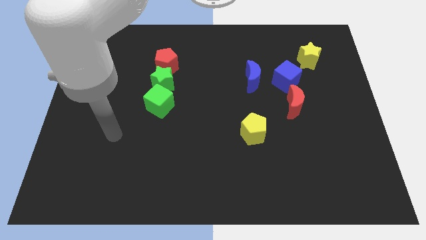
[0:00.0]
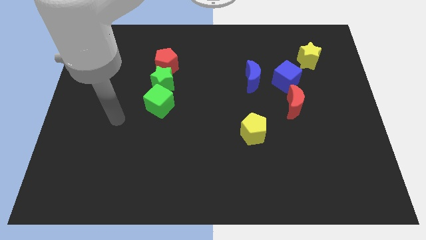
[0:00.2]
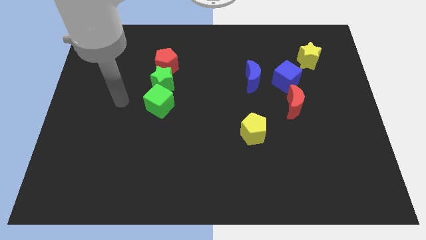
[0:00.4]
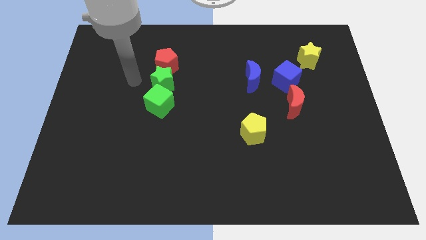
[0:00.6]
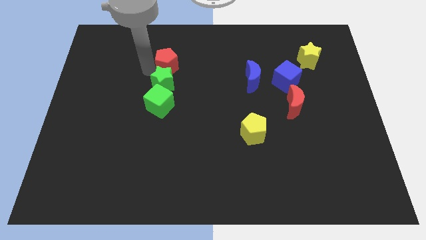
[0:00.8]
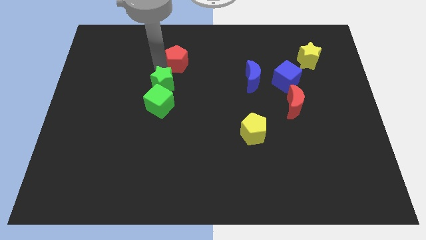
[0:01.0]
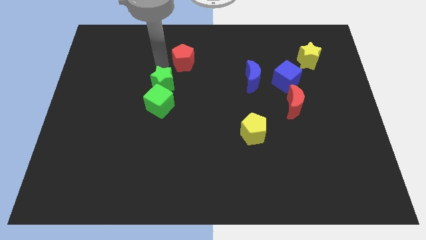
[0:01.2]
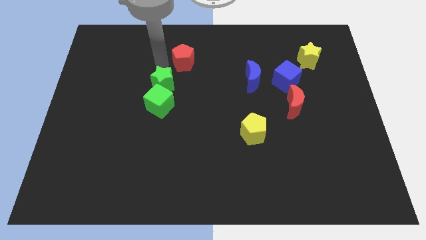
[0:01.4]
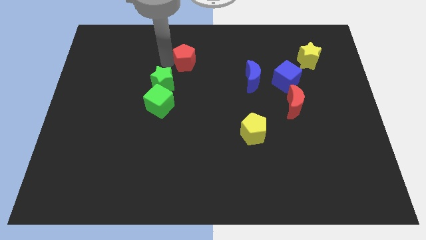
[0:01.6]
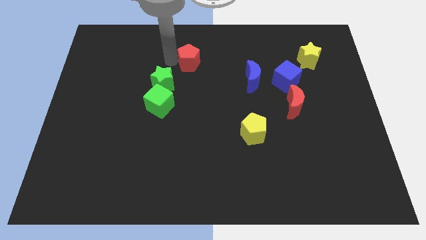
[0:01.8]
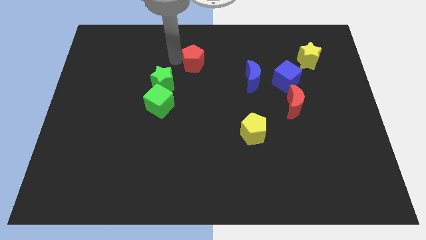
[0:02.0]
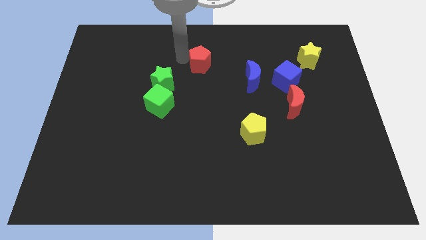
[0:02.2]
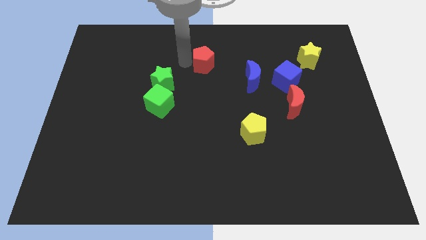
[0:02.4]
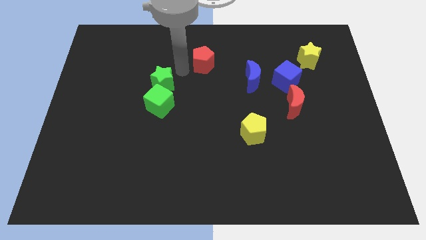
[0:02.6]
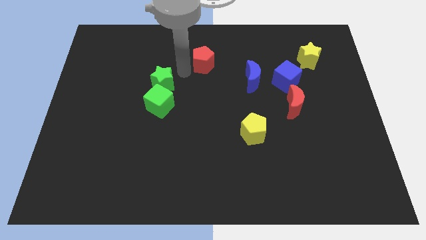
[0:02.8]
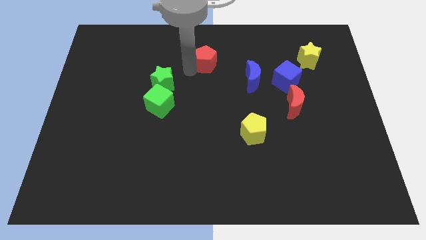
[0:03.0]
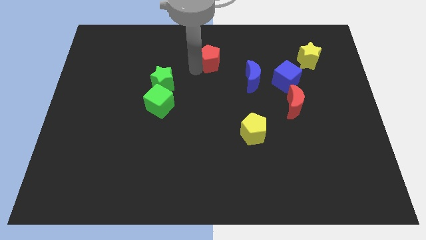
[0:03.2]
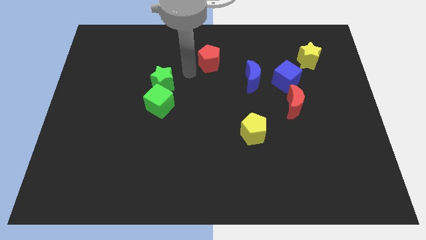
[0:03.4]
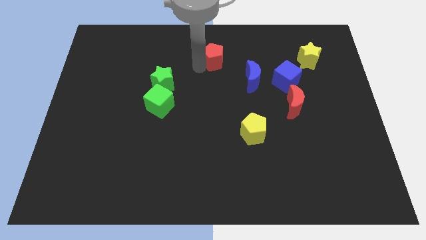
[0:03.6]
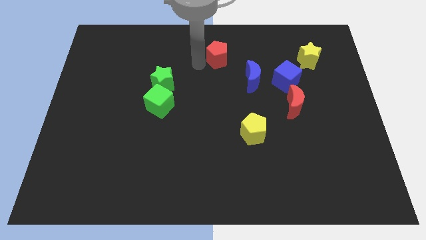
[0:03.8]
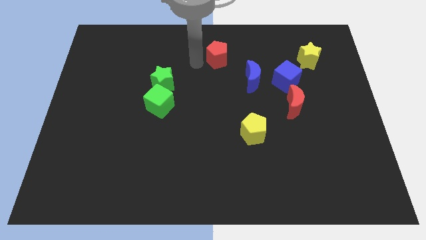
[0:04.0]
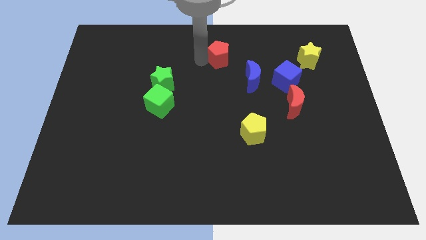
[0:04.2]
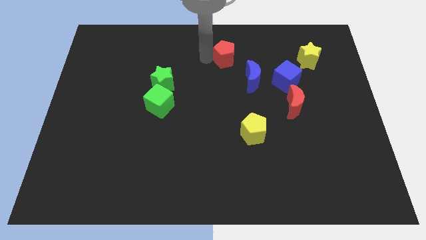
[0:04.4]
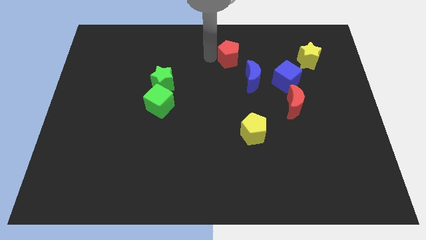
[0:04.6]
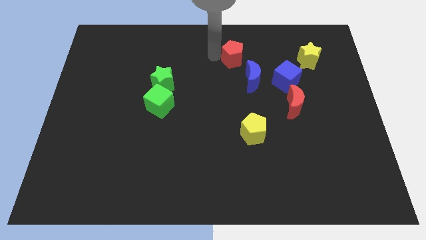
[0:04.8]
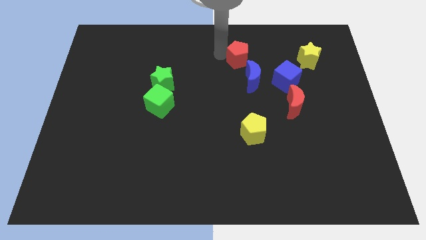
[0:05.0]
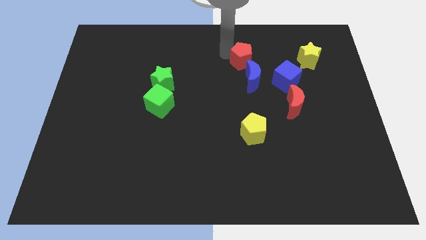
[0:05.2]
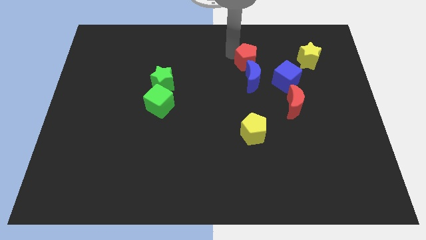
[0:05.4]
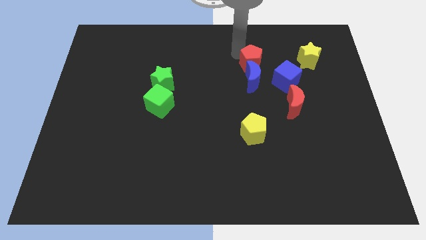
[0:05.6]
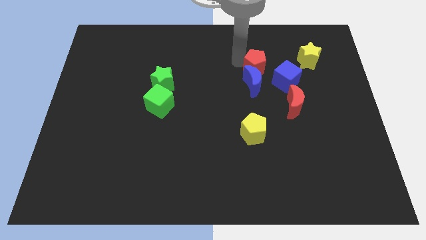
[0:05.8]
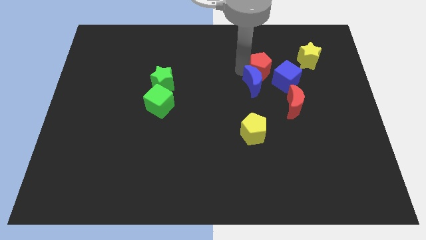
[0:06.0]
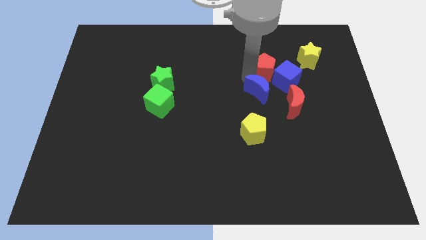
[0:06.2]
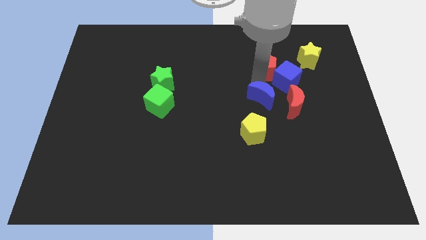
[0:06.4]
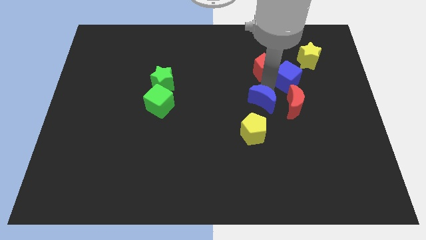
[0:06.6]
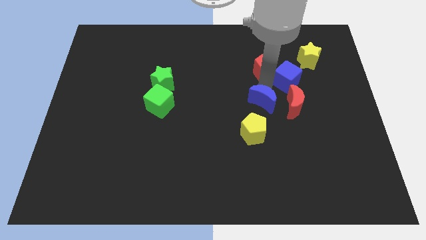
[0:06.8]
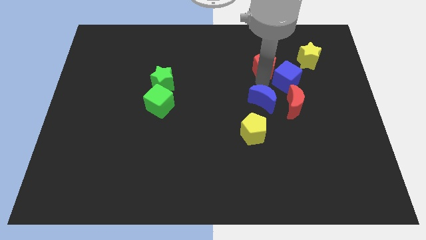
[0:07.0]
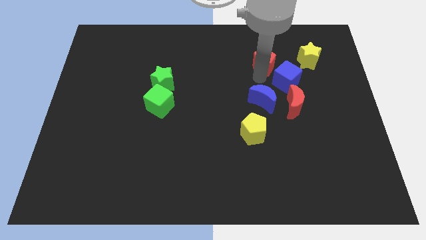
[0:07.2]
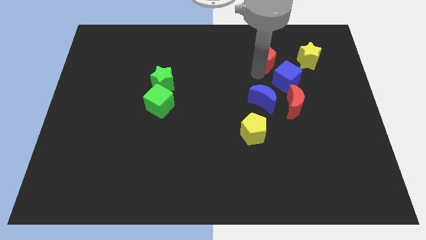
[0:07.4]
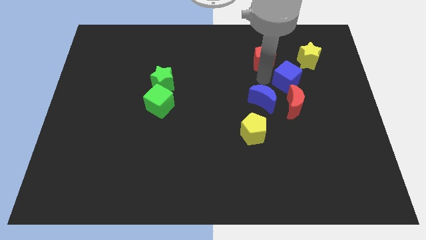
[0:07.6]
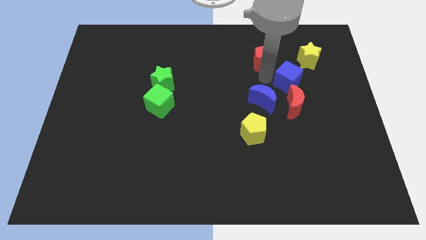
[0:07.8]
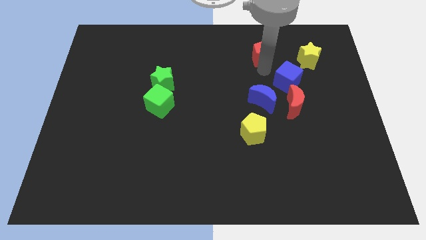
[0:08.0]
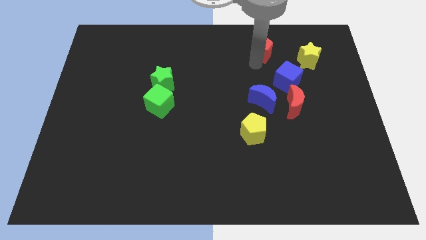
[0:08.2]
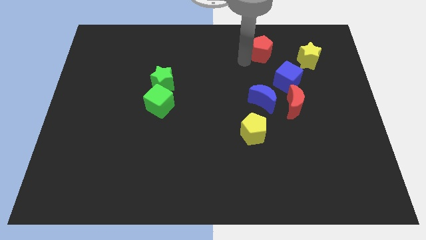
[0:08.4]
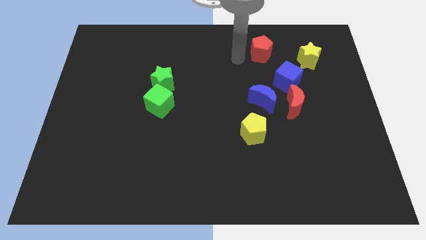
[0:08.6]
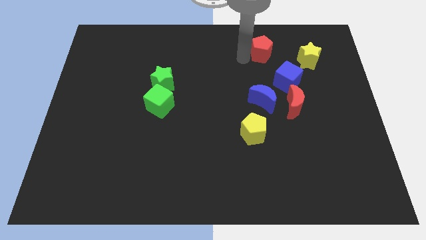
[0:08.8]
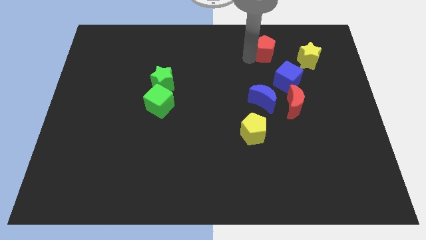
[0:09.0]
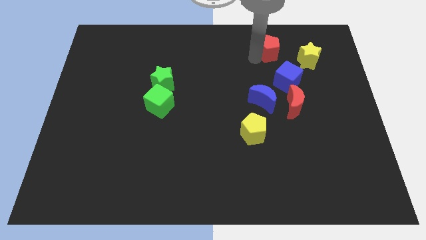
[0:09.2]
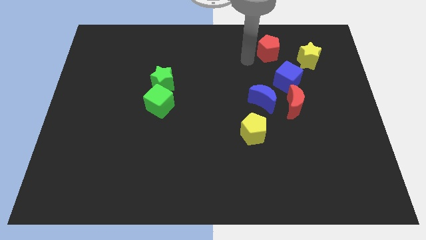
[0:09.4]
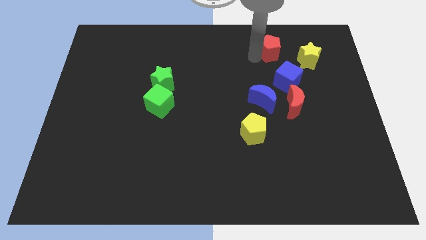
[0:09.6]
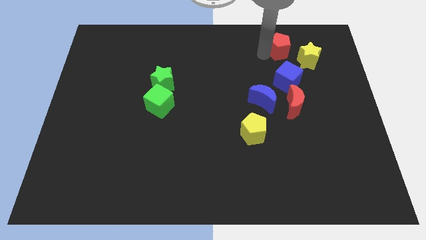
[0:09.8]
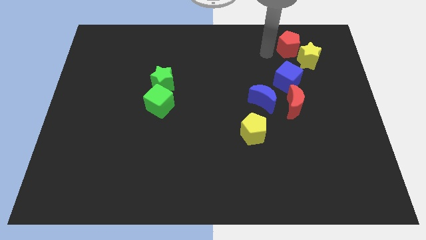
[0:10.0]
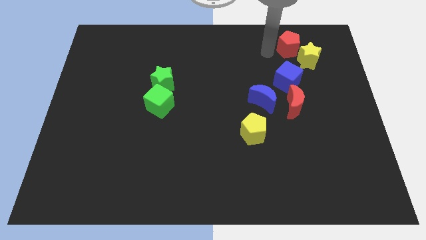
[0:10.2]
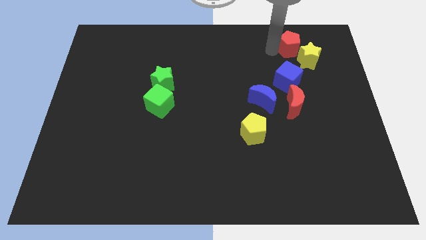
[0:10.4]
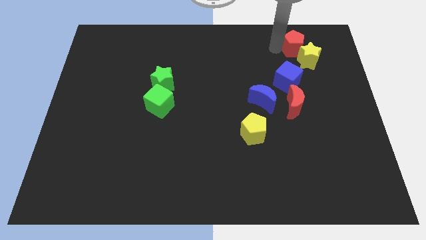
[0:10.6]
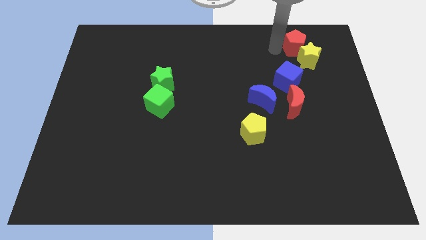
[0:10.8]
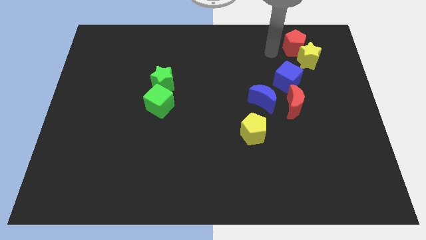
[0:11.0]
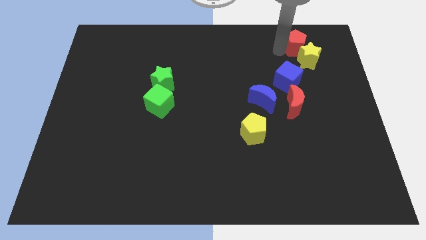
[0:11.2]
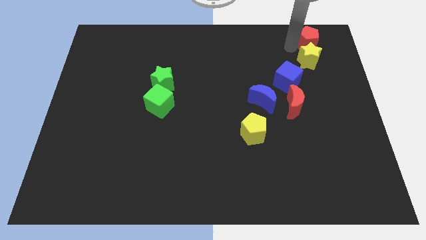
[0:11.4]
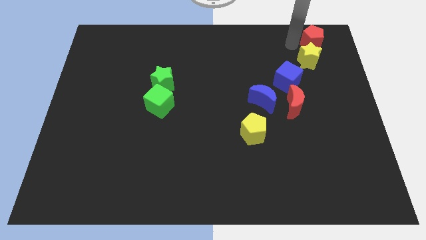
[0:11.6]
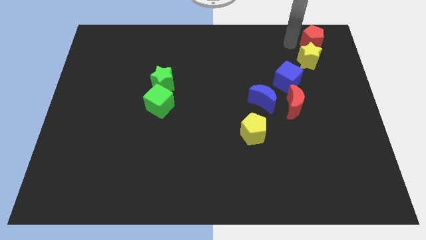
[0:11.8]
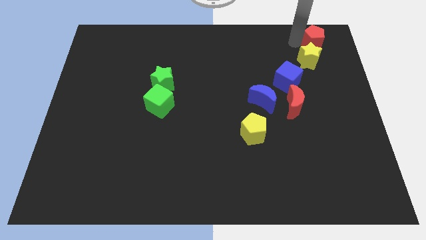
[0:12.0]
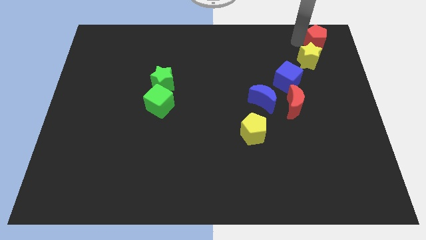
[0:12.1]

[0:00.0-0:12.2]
slide the red pentagon to the top right corner
